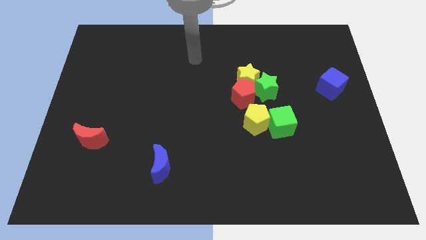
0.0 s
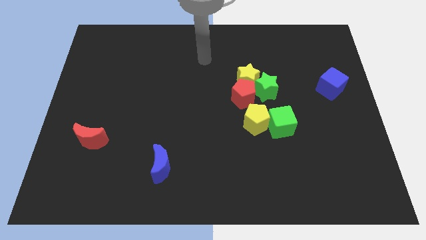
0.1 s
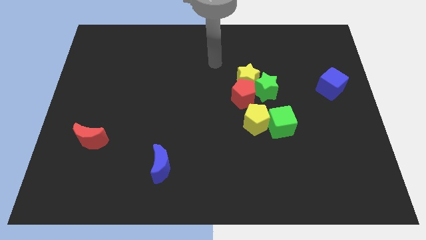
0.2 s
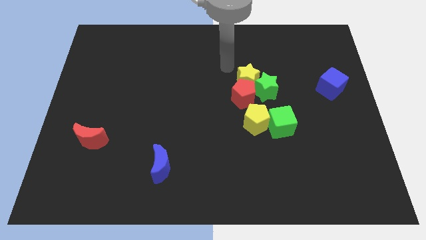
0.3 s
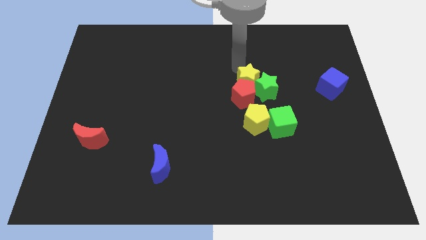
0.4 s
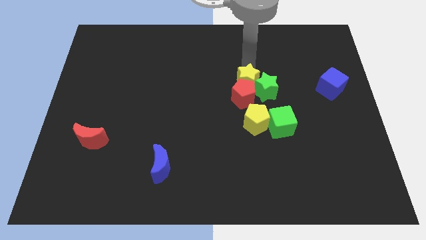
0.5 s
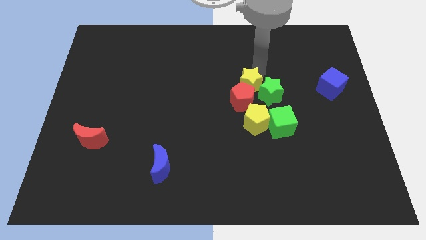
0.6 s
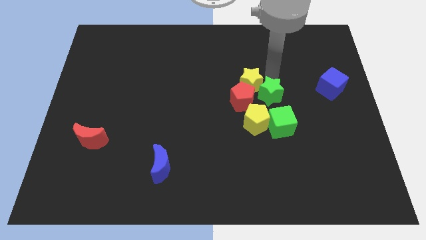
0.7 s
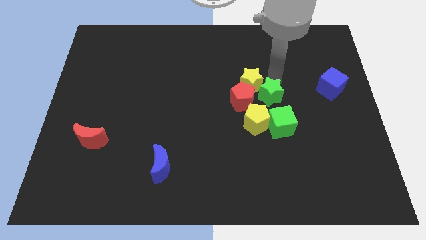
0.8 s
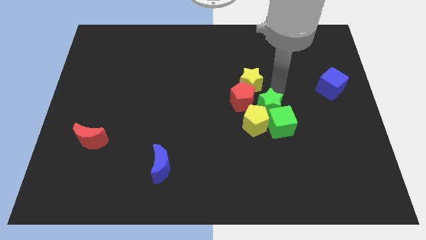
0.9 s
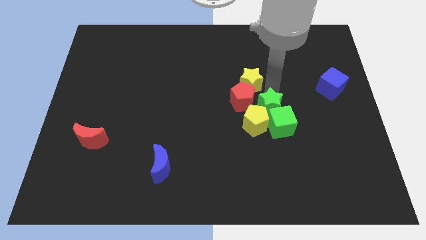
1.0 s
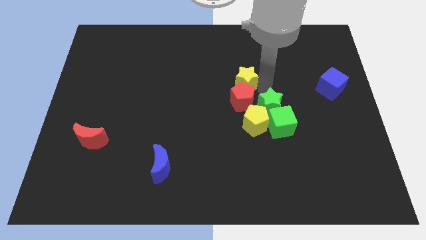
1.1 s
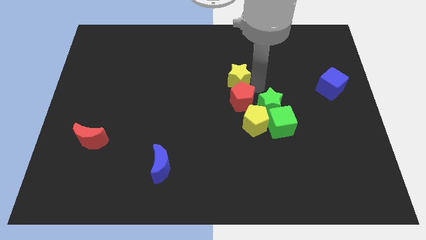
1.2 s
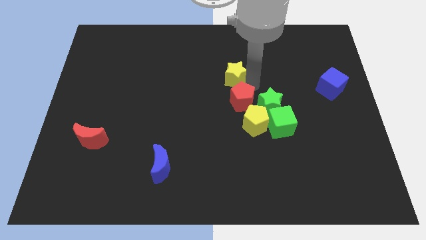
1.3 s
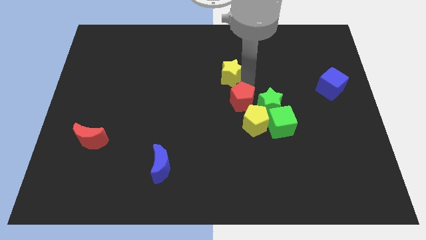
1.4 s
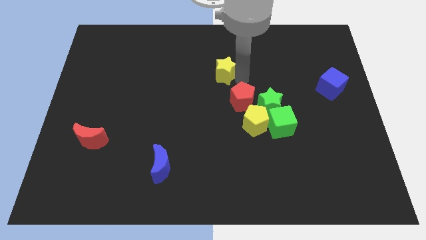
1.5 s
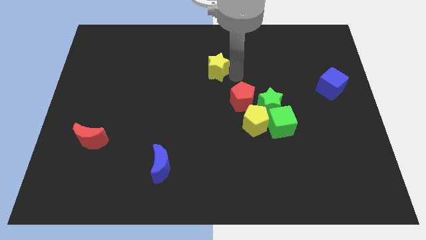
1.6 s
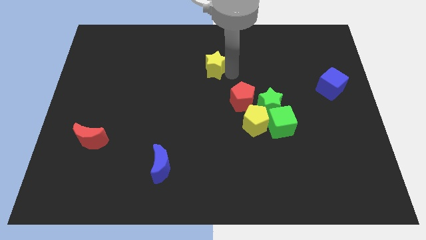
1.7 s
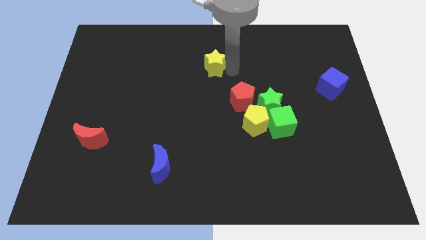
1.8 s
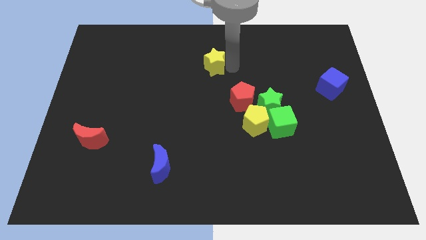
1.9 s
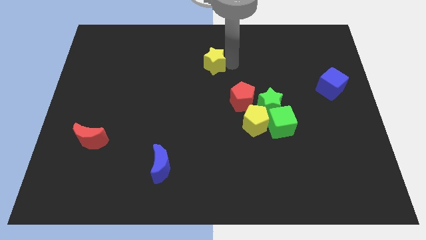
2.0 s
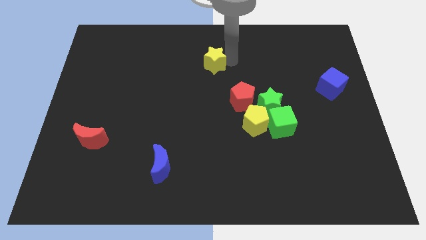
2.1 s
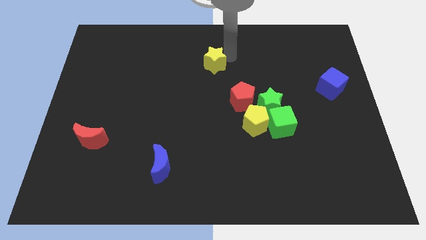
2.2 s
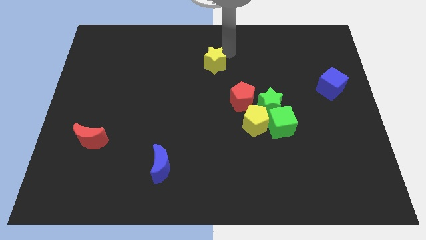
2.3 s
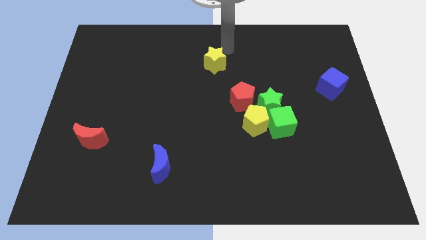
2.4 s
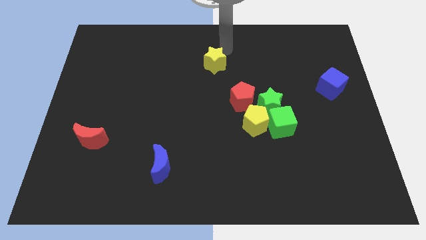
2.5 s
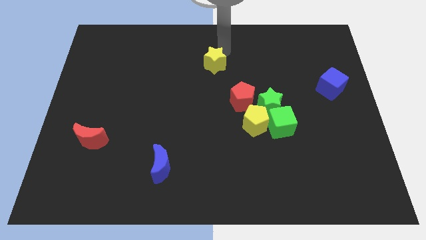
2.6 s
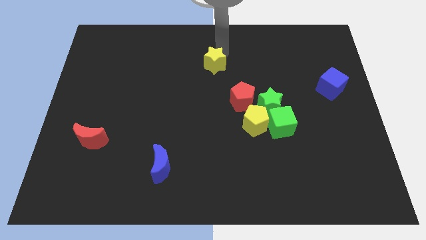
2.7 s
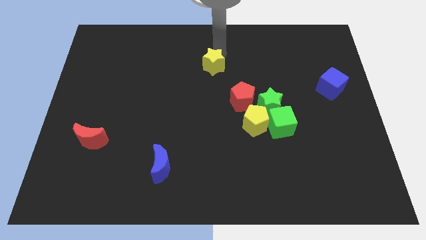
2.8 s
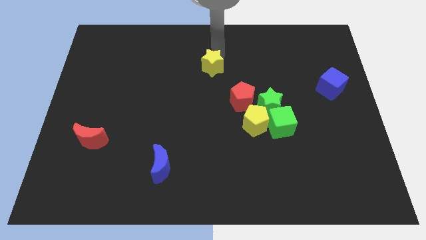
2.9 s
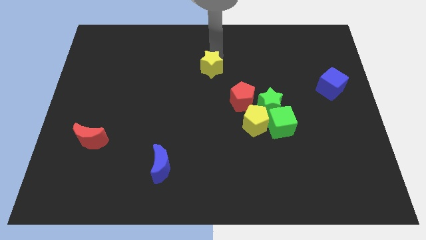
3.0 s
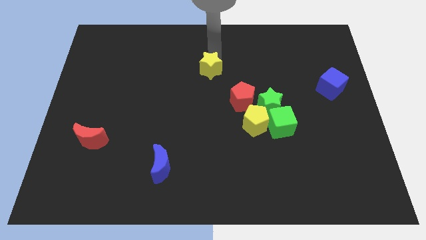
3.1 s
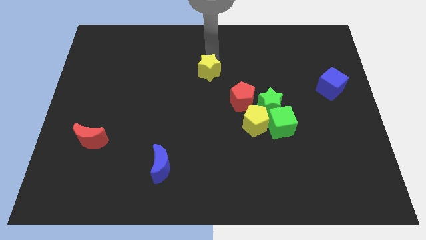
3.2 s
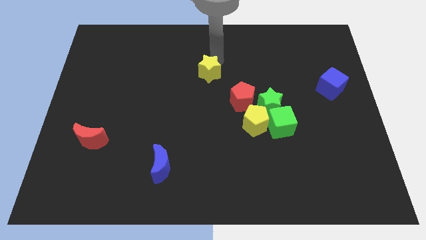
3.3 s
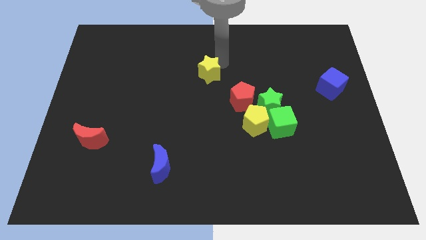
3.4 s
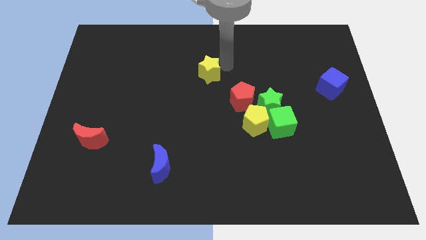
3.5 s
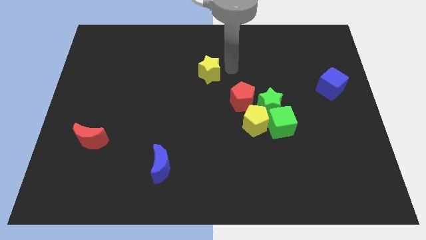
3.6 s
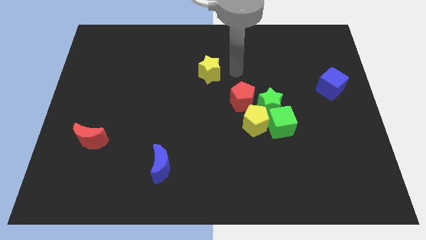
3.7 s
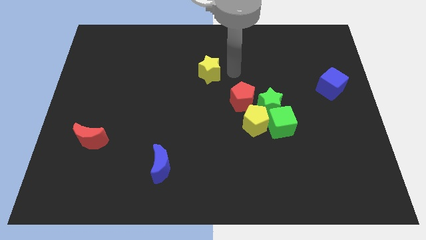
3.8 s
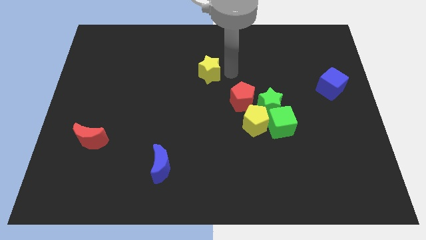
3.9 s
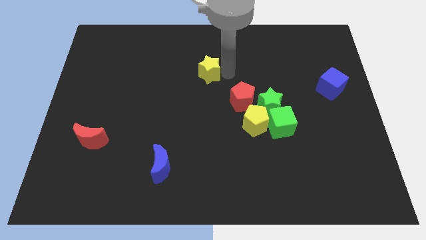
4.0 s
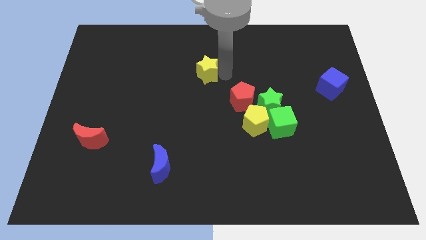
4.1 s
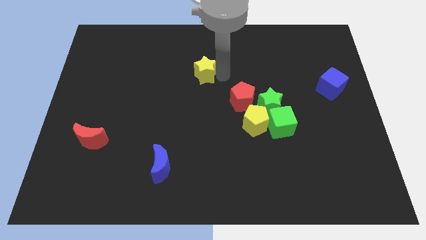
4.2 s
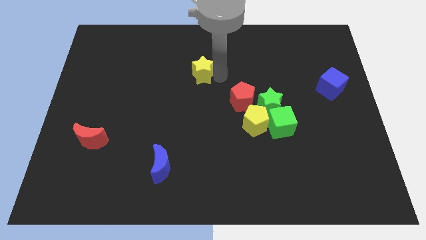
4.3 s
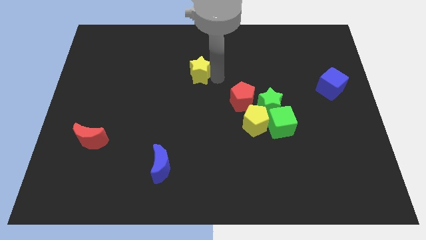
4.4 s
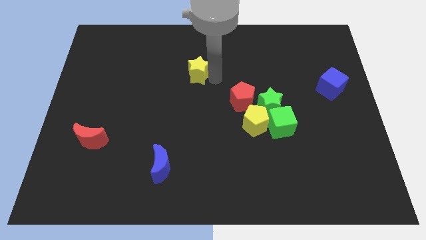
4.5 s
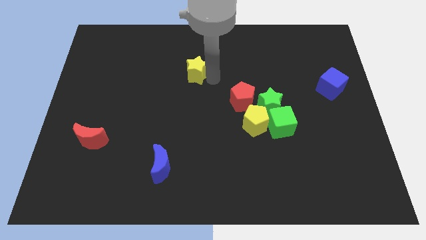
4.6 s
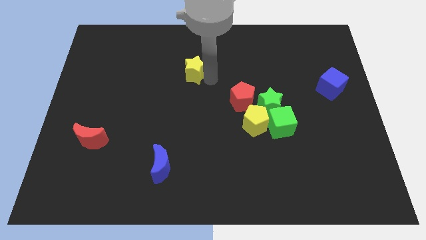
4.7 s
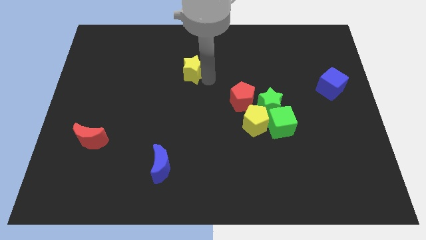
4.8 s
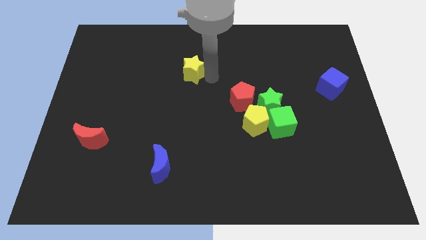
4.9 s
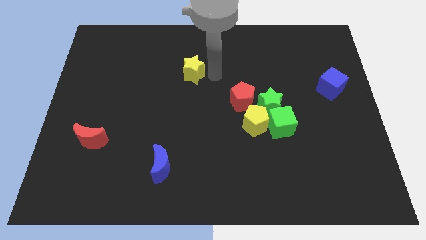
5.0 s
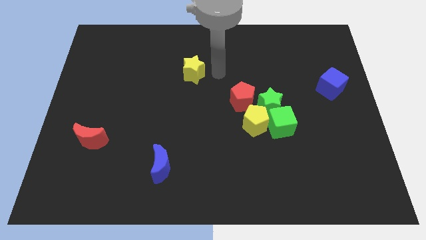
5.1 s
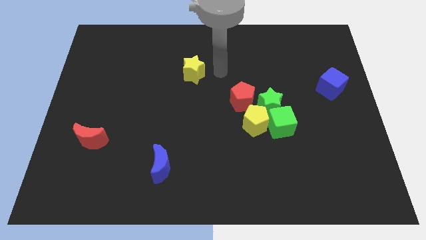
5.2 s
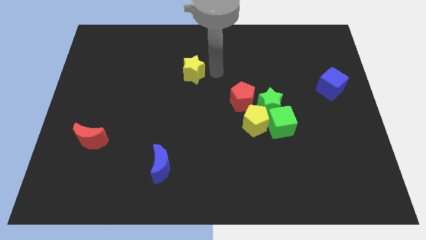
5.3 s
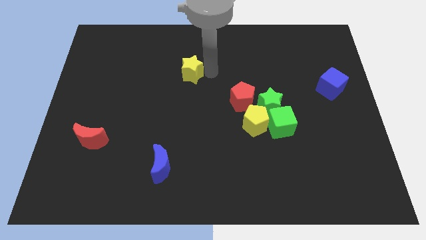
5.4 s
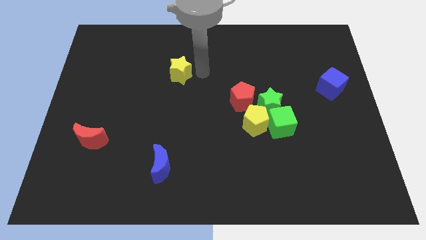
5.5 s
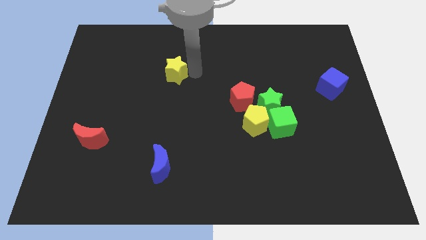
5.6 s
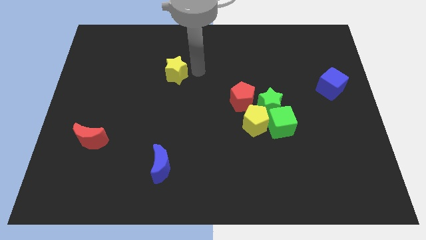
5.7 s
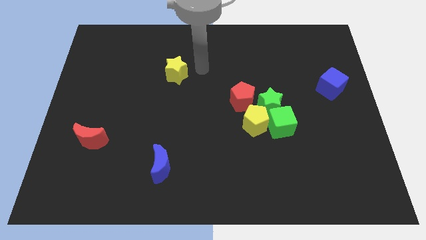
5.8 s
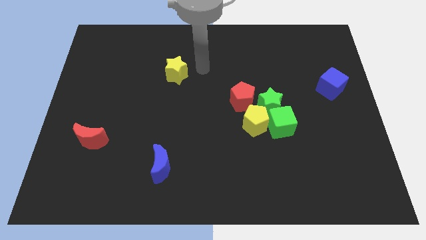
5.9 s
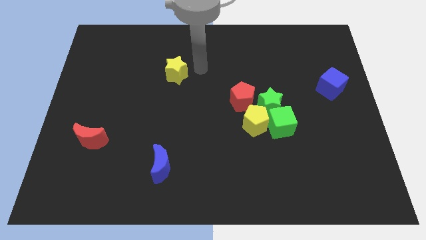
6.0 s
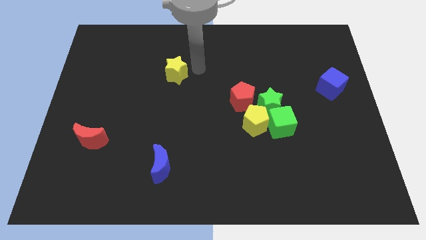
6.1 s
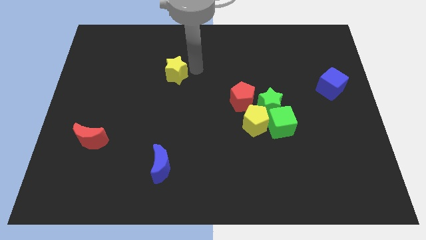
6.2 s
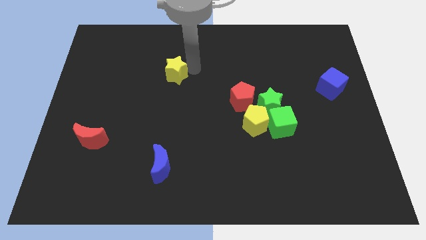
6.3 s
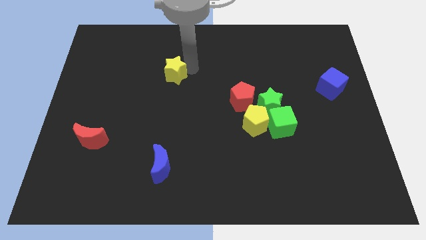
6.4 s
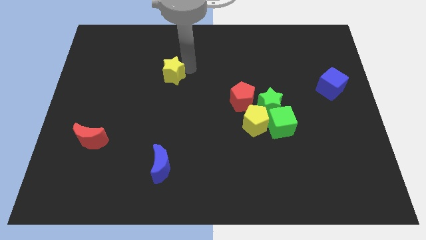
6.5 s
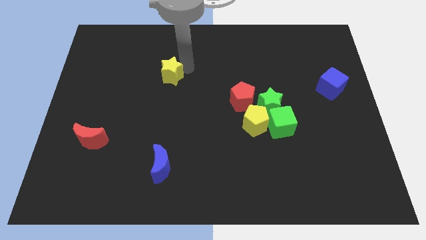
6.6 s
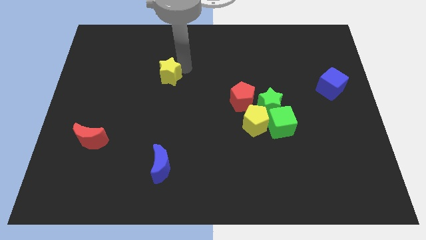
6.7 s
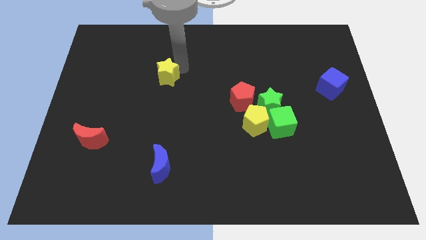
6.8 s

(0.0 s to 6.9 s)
slide the yellow star to the left

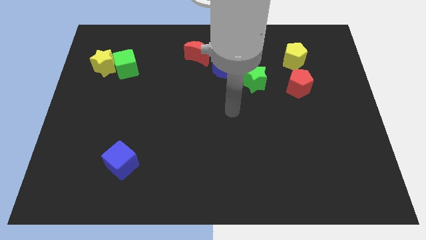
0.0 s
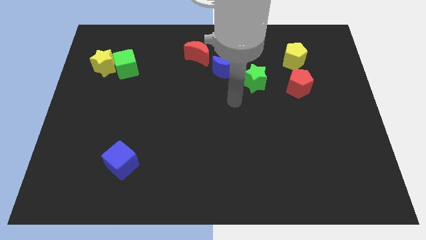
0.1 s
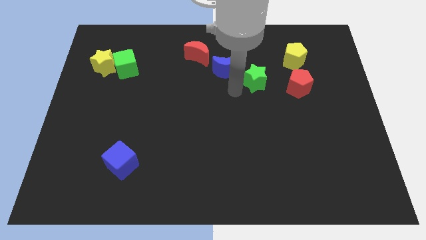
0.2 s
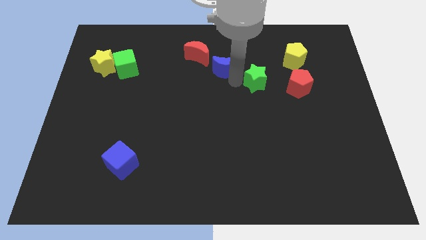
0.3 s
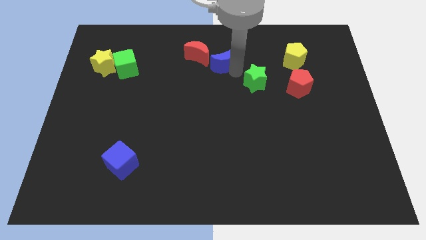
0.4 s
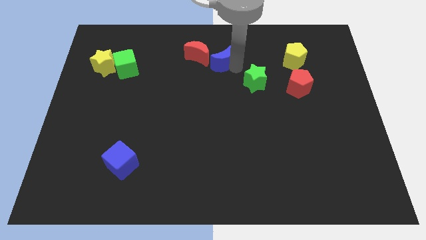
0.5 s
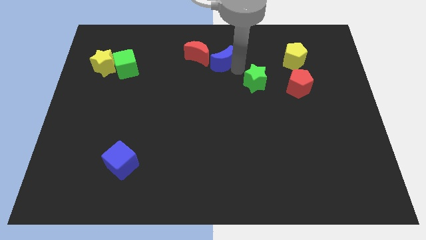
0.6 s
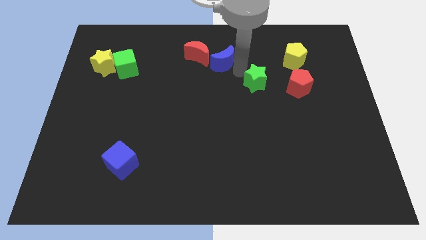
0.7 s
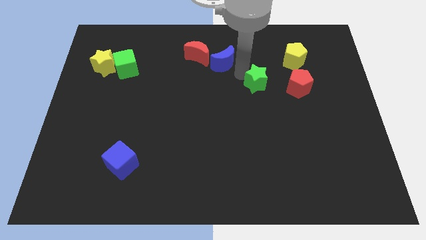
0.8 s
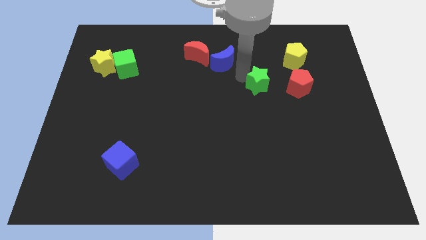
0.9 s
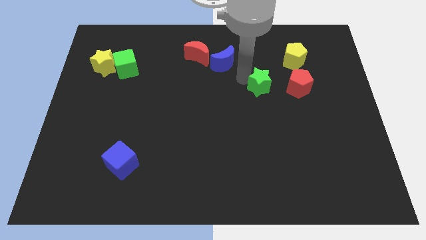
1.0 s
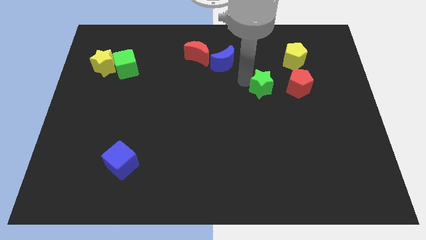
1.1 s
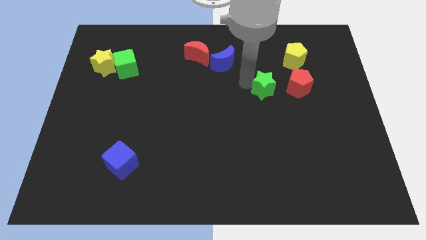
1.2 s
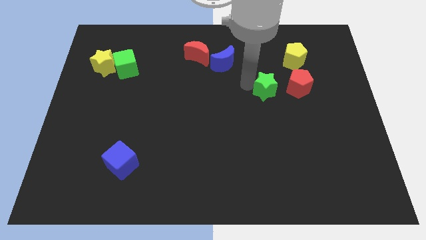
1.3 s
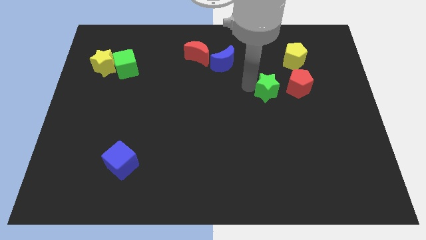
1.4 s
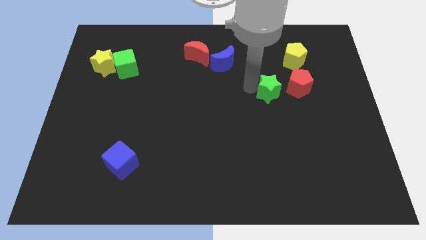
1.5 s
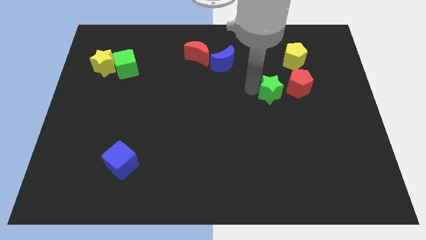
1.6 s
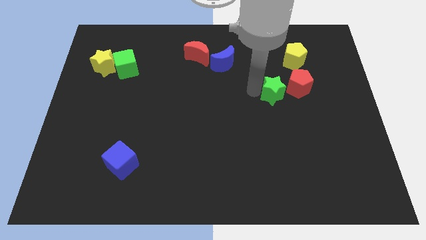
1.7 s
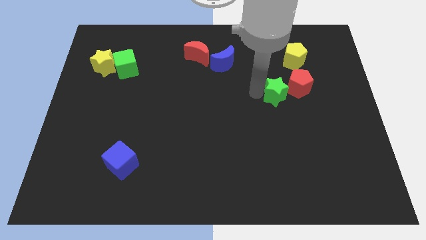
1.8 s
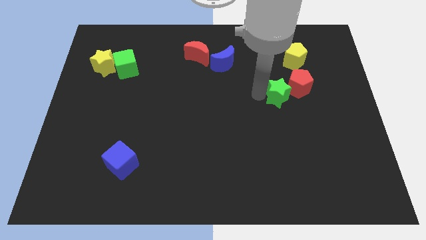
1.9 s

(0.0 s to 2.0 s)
move the green star downwards and then to the right a bit
